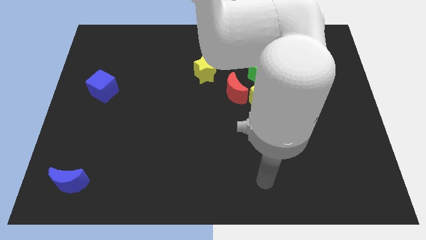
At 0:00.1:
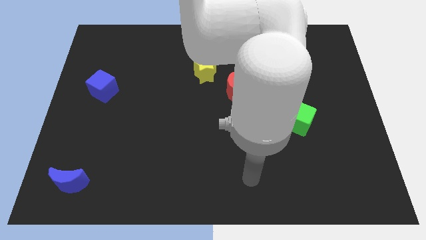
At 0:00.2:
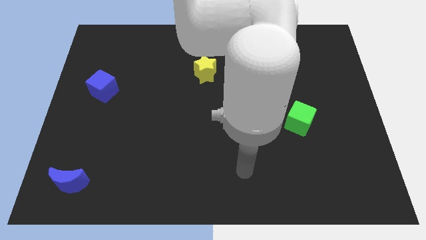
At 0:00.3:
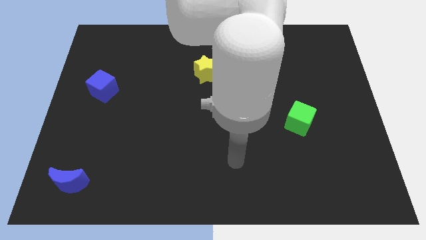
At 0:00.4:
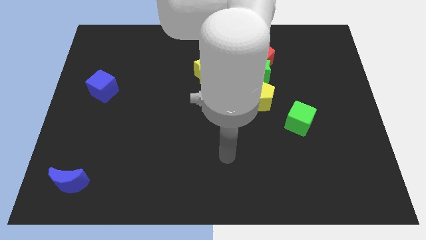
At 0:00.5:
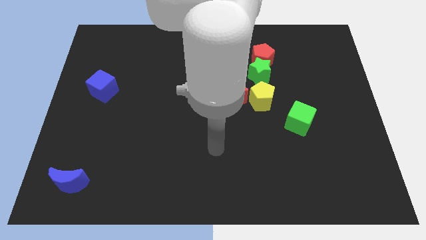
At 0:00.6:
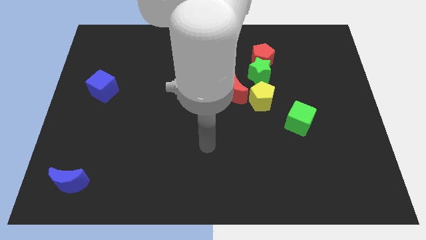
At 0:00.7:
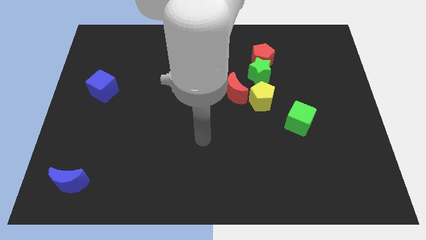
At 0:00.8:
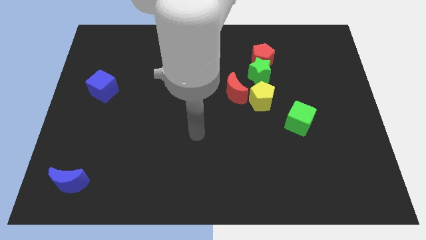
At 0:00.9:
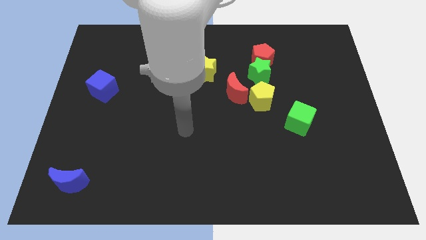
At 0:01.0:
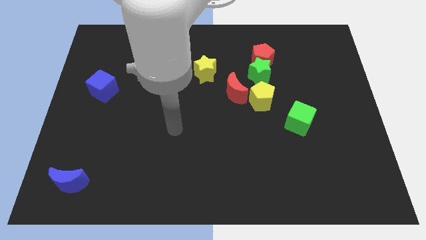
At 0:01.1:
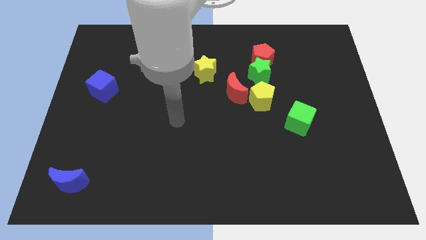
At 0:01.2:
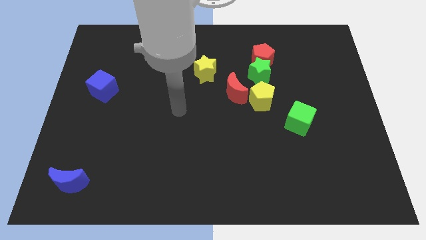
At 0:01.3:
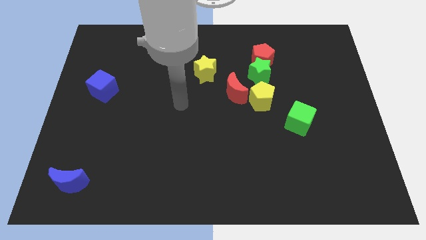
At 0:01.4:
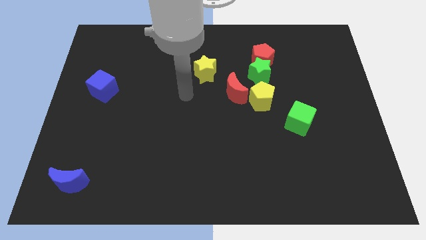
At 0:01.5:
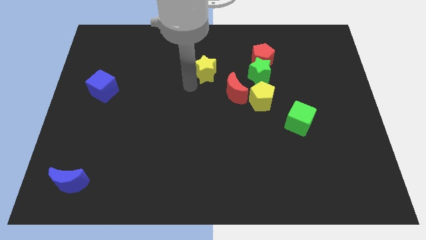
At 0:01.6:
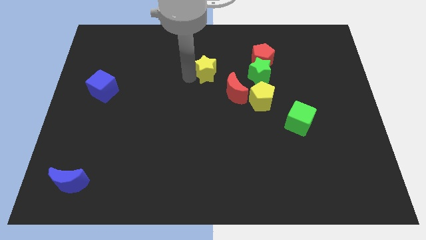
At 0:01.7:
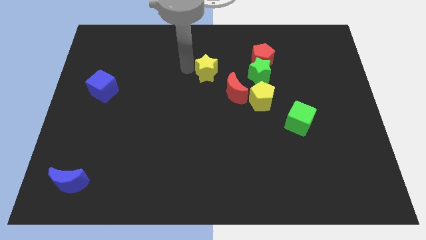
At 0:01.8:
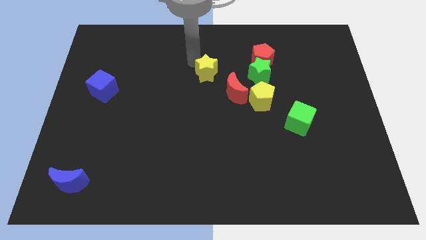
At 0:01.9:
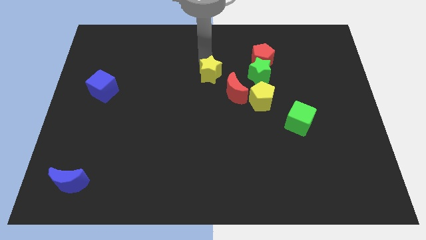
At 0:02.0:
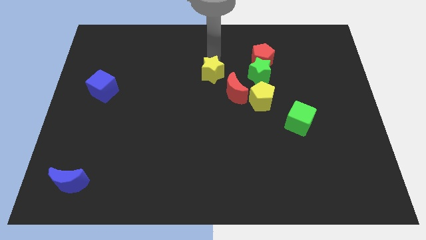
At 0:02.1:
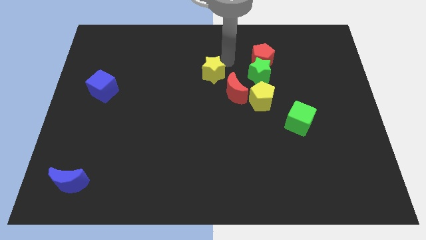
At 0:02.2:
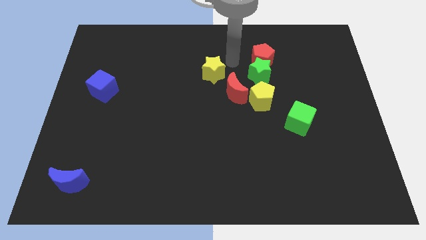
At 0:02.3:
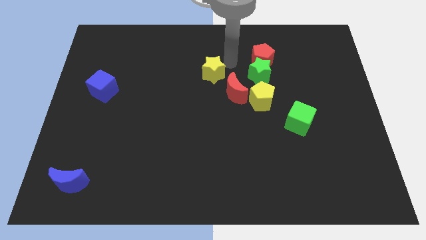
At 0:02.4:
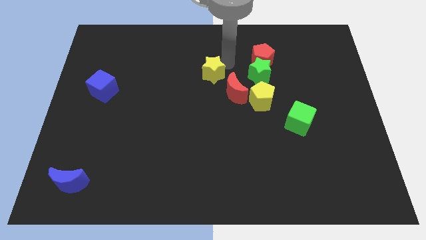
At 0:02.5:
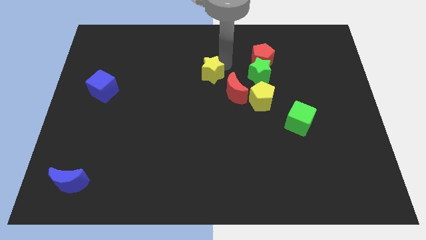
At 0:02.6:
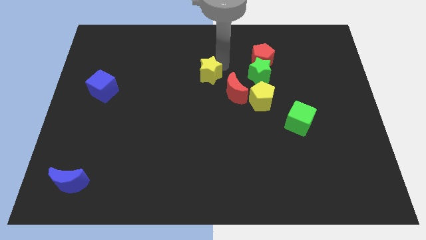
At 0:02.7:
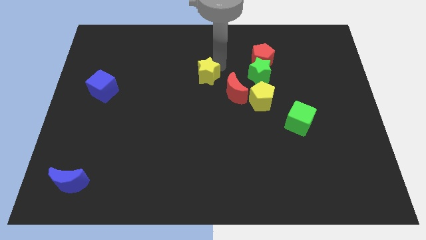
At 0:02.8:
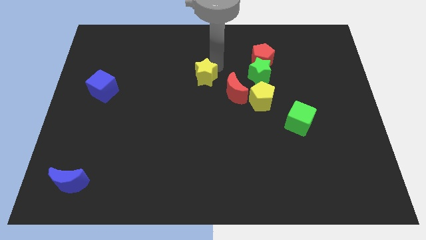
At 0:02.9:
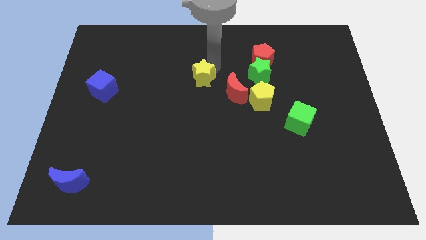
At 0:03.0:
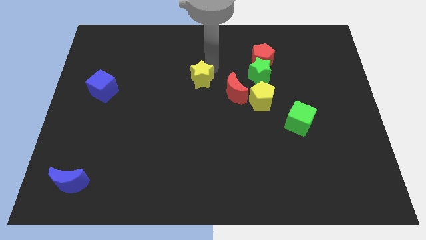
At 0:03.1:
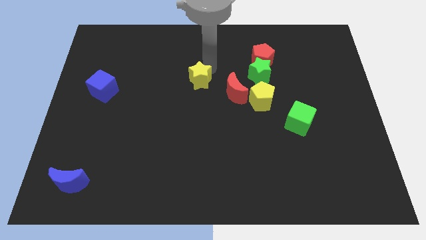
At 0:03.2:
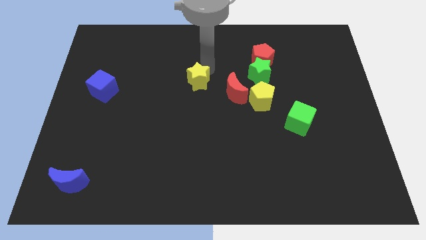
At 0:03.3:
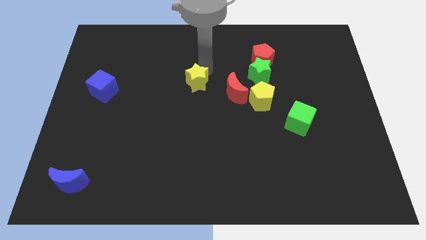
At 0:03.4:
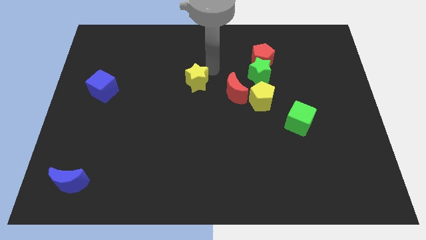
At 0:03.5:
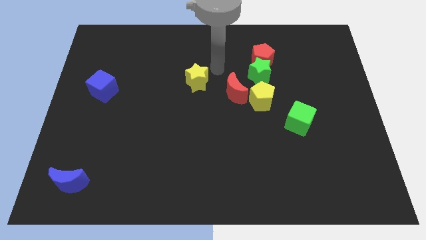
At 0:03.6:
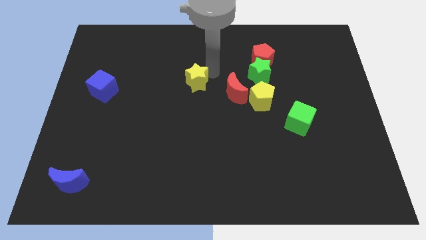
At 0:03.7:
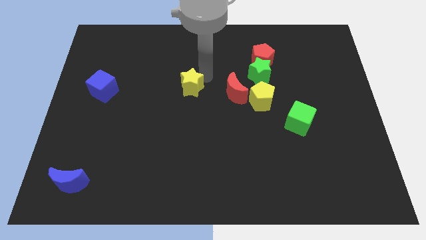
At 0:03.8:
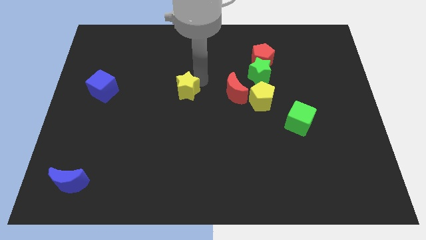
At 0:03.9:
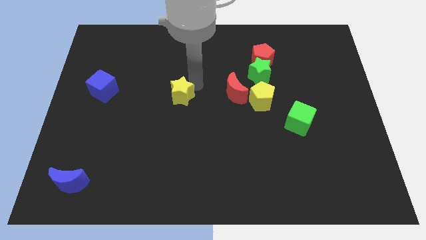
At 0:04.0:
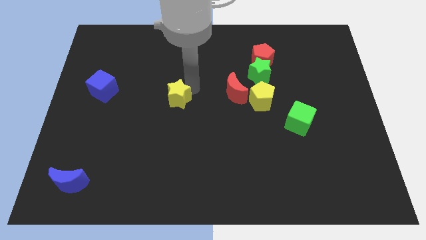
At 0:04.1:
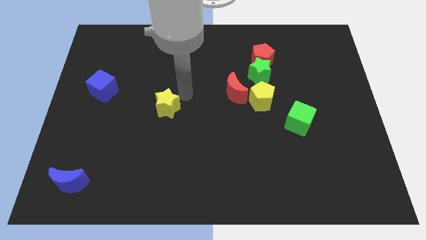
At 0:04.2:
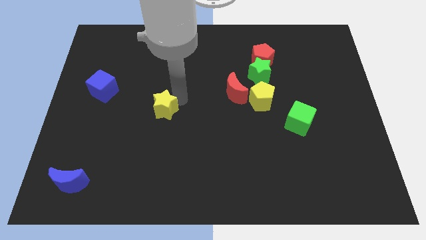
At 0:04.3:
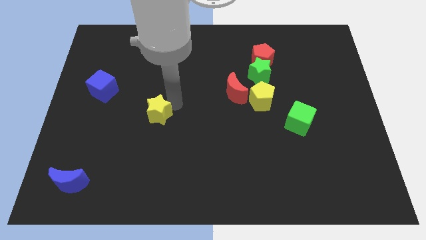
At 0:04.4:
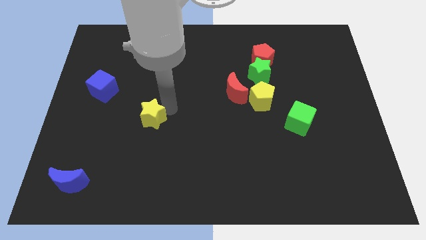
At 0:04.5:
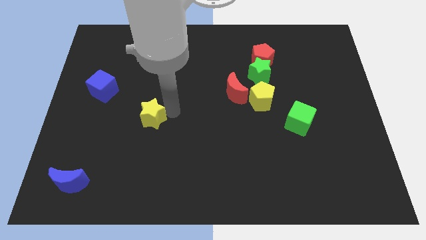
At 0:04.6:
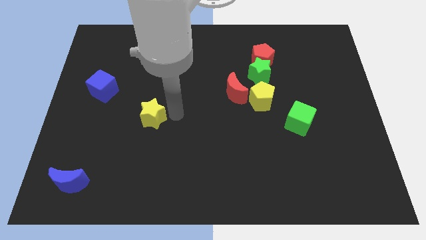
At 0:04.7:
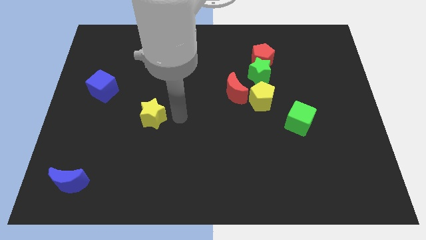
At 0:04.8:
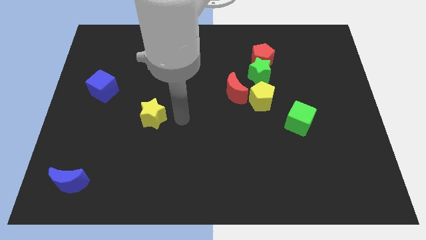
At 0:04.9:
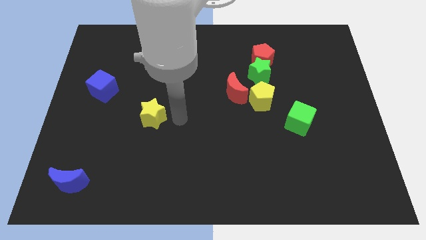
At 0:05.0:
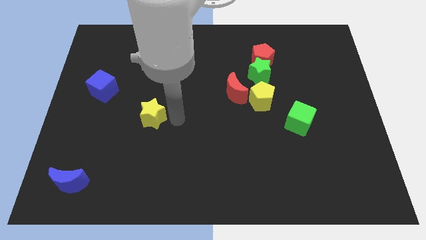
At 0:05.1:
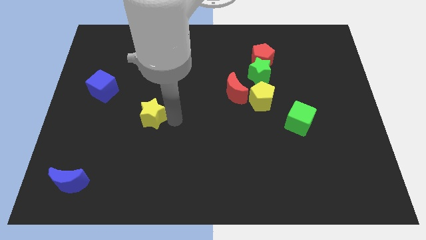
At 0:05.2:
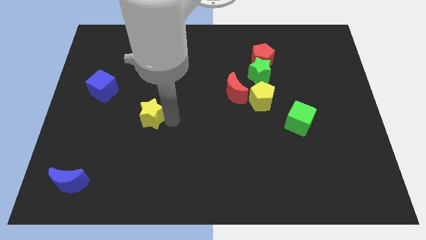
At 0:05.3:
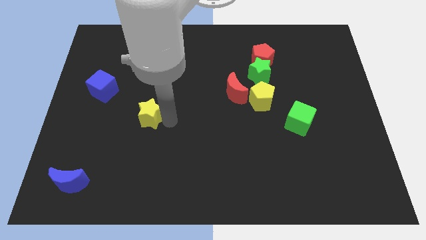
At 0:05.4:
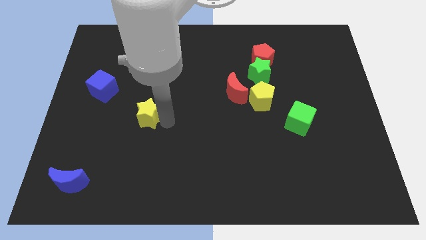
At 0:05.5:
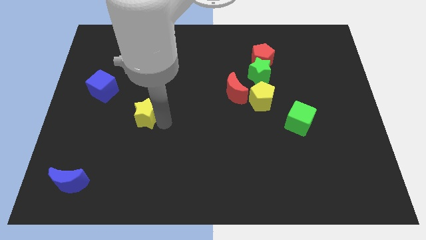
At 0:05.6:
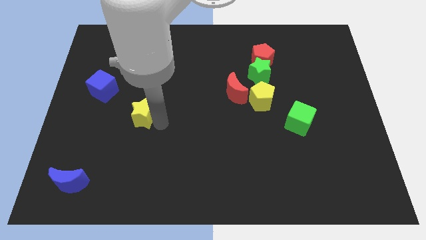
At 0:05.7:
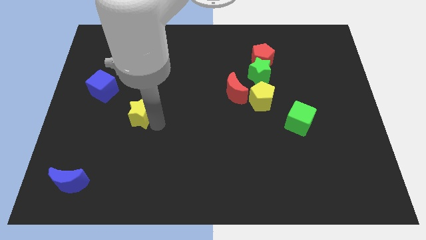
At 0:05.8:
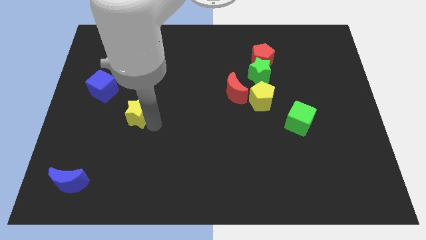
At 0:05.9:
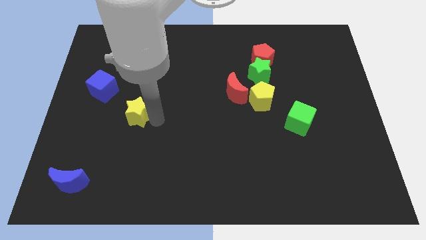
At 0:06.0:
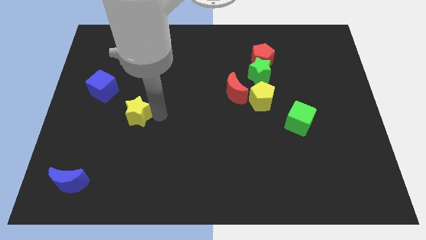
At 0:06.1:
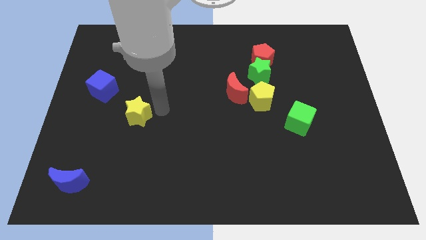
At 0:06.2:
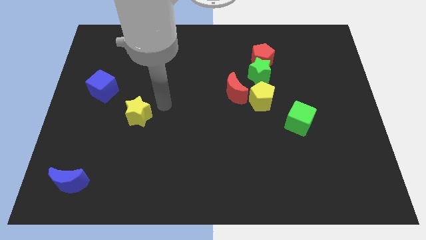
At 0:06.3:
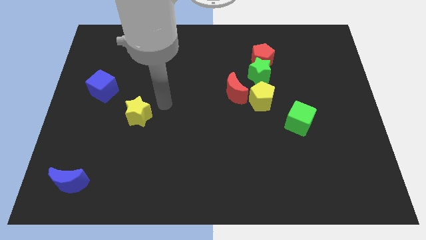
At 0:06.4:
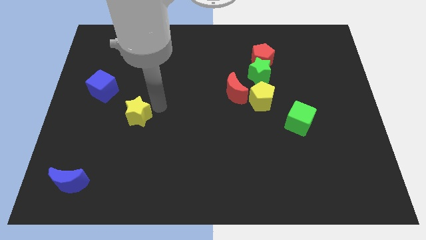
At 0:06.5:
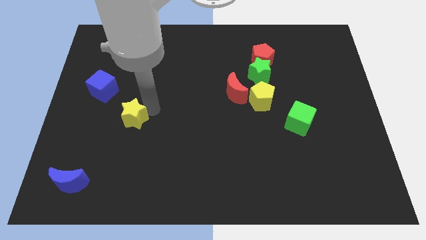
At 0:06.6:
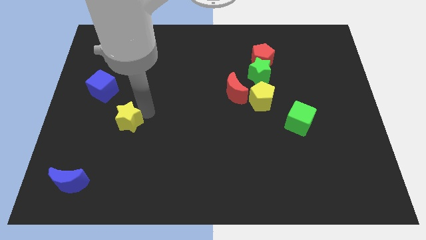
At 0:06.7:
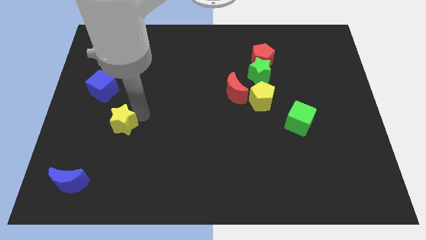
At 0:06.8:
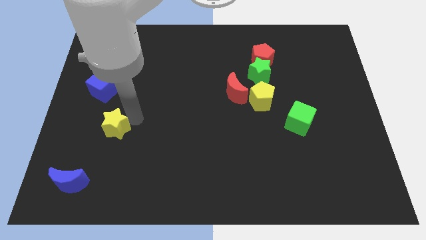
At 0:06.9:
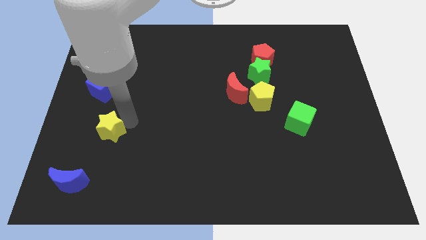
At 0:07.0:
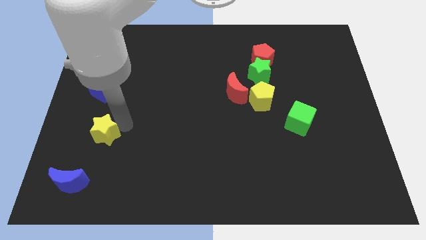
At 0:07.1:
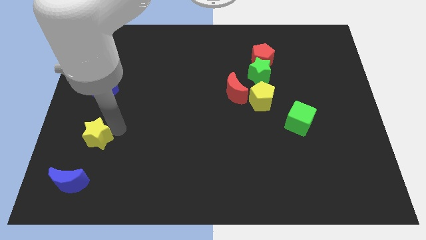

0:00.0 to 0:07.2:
put the yellow star to the top side of the blue moon
